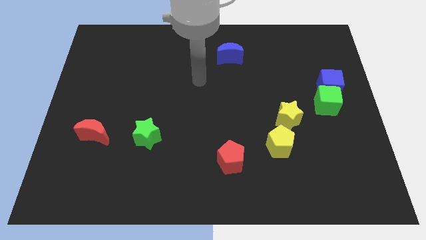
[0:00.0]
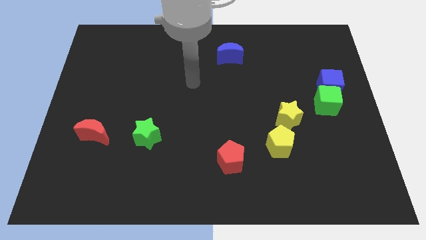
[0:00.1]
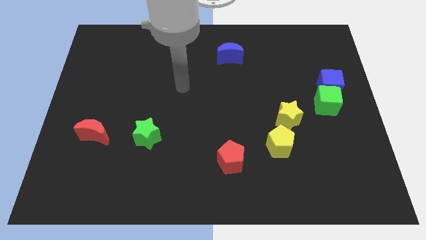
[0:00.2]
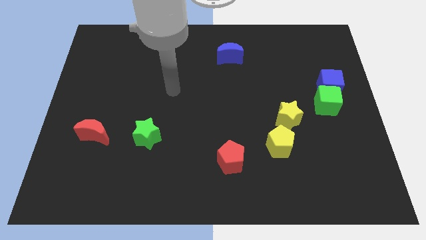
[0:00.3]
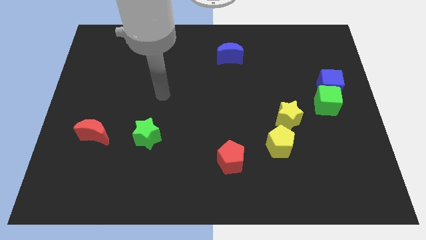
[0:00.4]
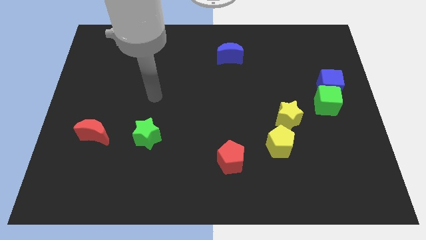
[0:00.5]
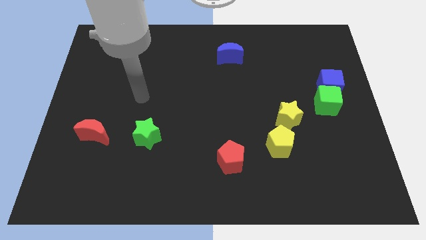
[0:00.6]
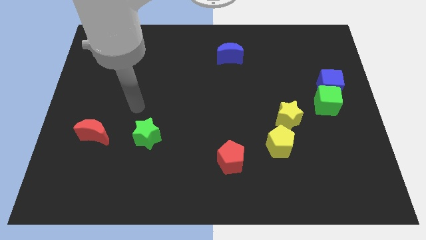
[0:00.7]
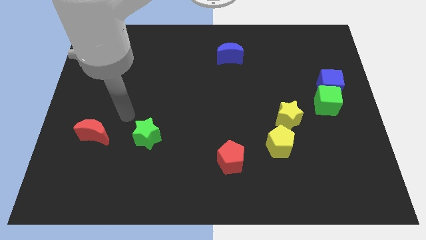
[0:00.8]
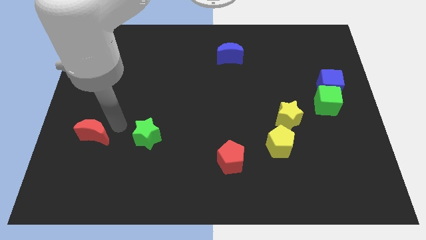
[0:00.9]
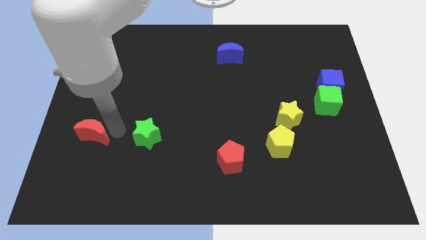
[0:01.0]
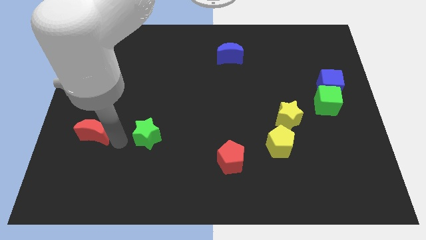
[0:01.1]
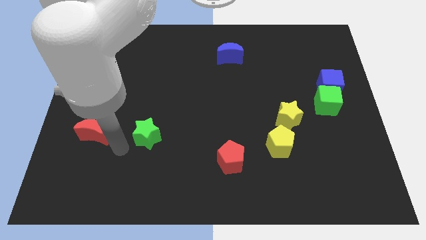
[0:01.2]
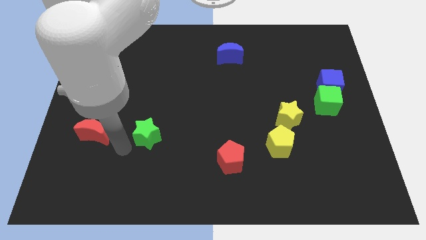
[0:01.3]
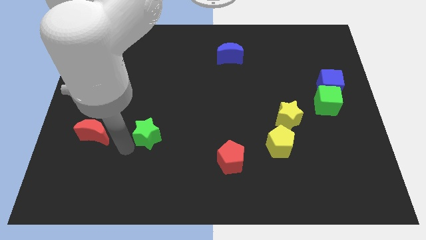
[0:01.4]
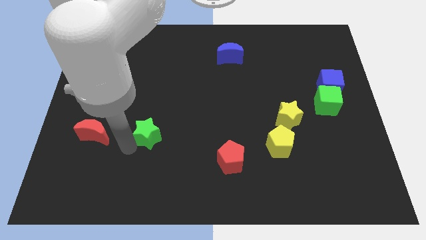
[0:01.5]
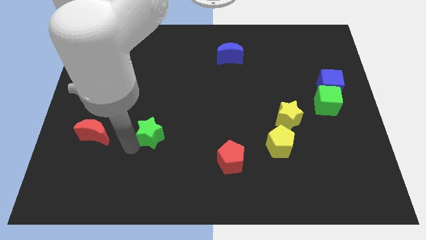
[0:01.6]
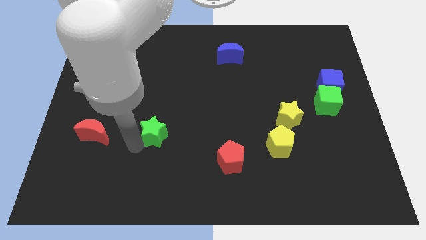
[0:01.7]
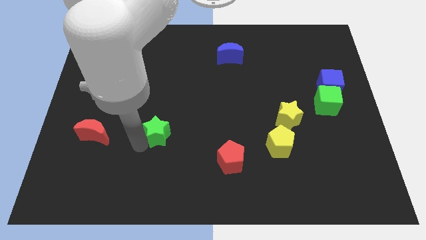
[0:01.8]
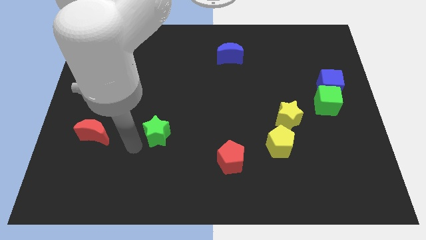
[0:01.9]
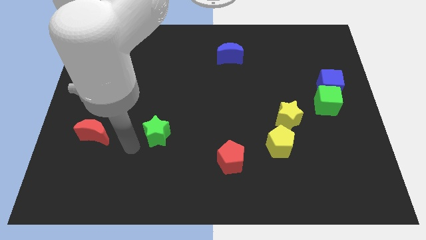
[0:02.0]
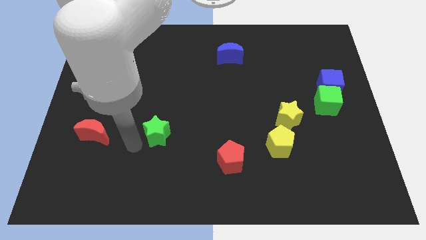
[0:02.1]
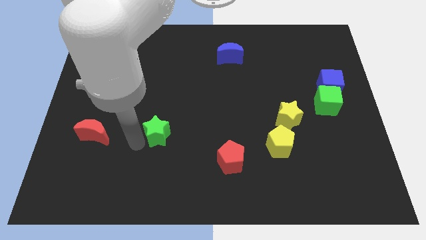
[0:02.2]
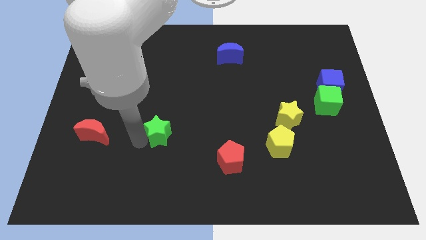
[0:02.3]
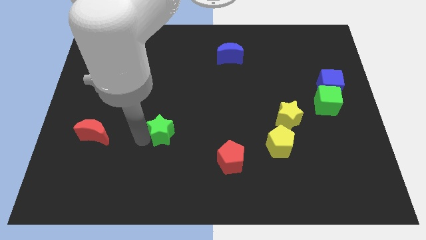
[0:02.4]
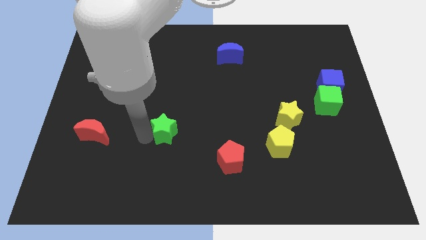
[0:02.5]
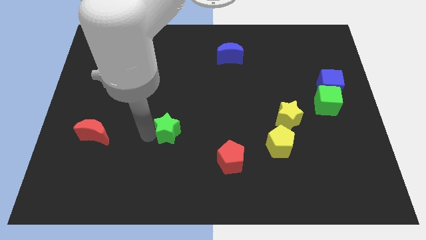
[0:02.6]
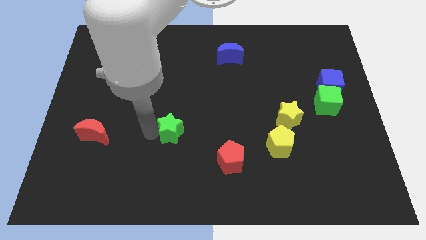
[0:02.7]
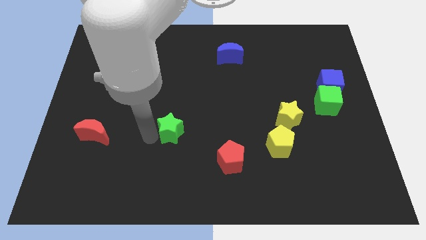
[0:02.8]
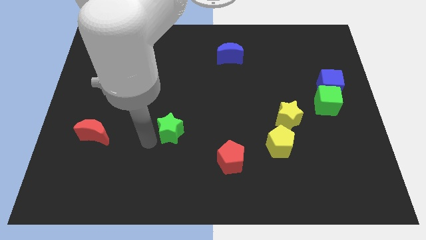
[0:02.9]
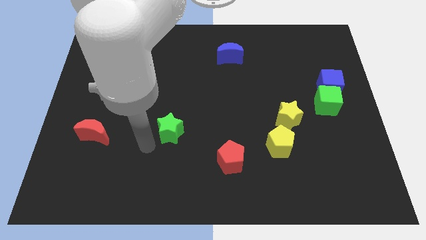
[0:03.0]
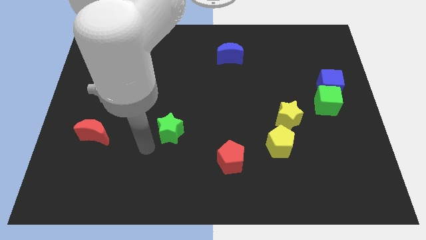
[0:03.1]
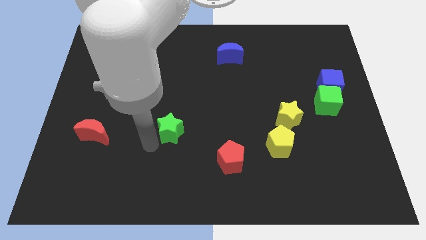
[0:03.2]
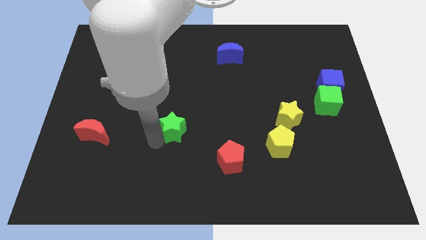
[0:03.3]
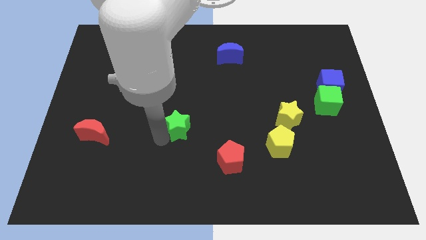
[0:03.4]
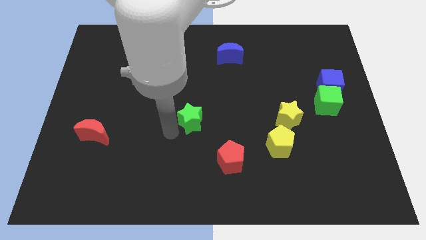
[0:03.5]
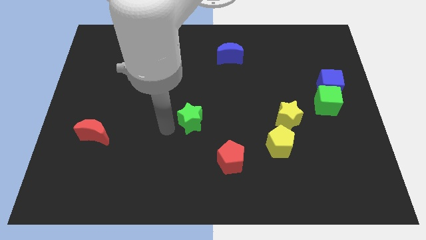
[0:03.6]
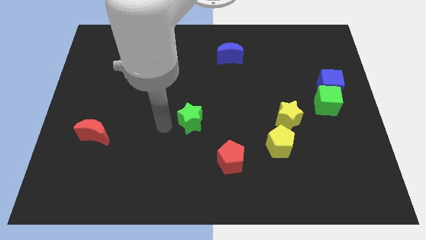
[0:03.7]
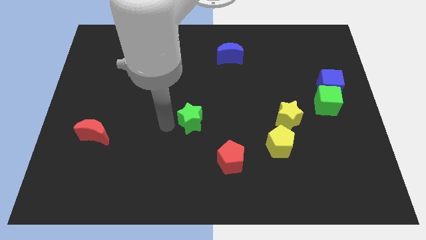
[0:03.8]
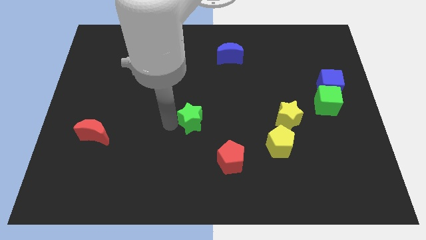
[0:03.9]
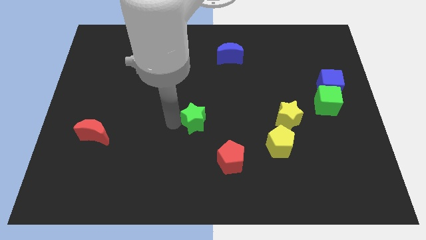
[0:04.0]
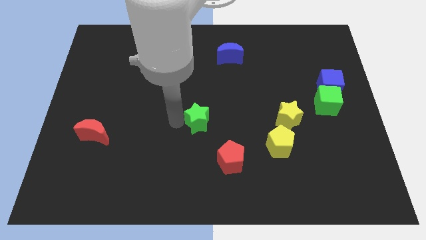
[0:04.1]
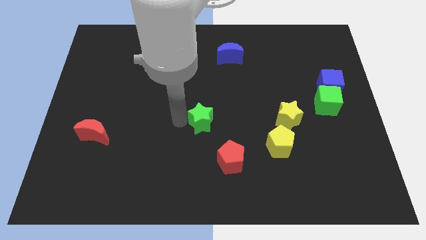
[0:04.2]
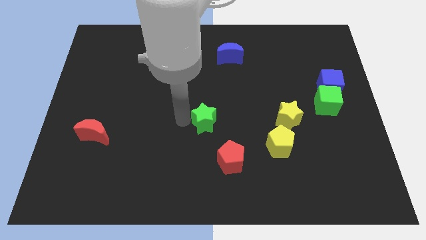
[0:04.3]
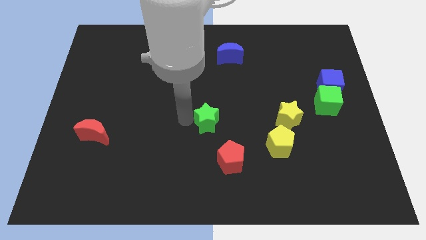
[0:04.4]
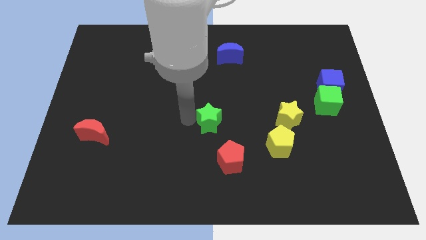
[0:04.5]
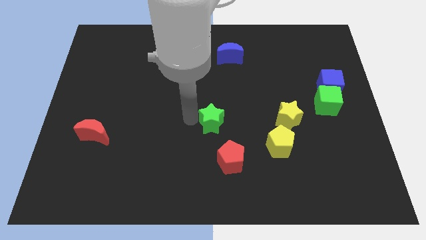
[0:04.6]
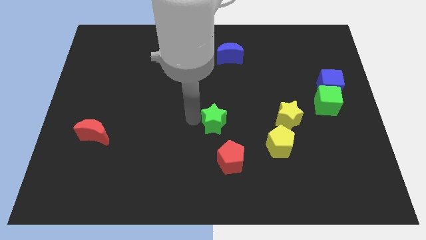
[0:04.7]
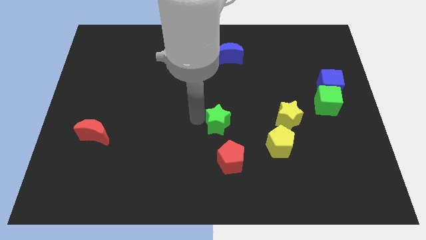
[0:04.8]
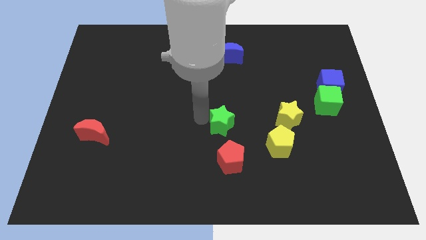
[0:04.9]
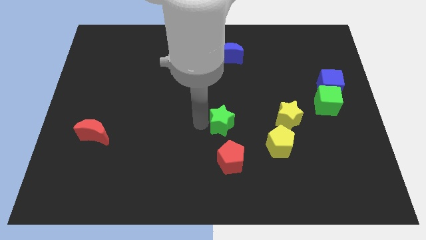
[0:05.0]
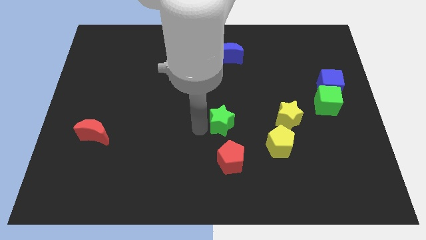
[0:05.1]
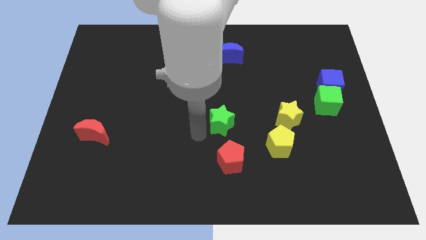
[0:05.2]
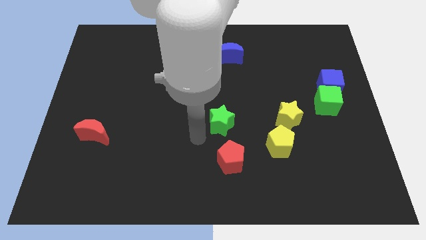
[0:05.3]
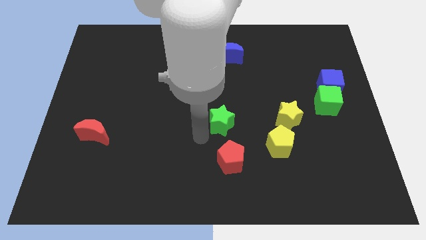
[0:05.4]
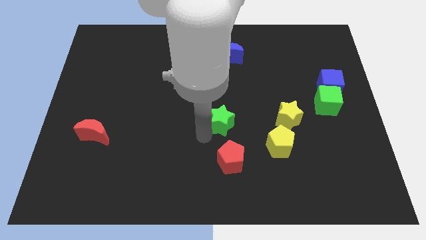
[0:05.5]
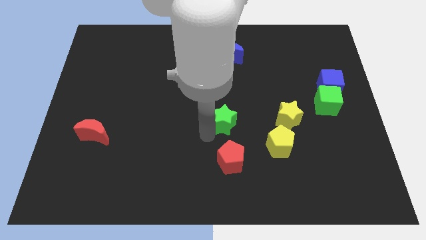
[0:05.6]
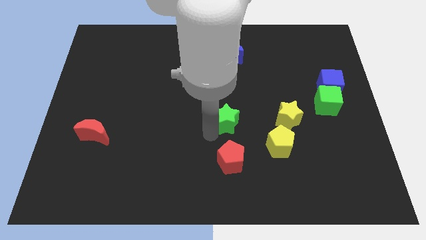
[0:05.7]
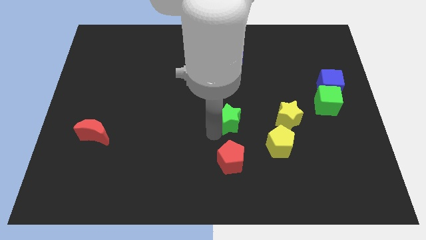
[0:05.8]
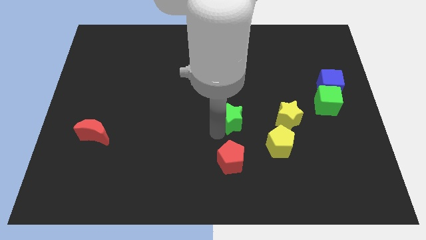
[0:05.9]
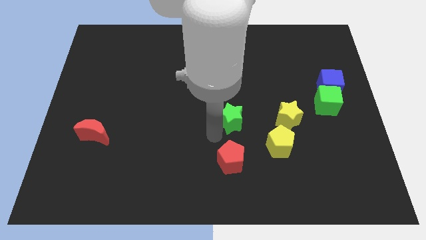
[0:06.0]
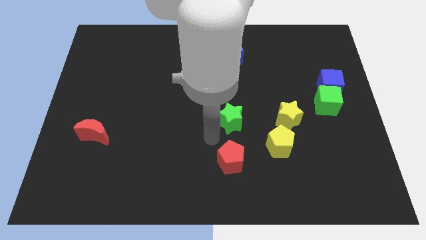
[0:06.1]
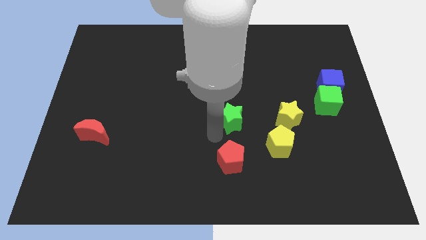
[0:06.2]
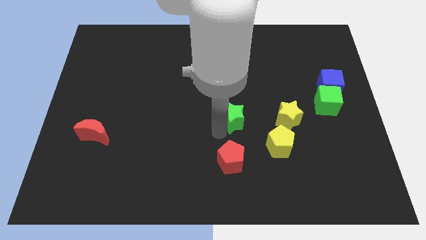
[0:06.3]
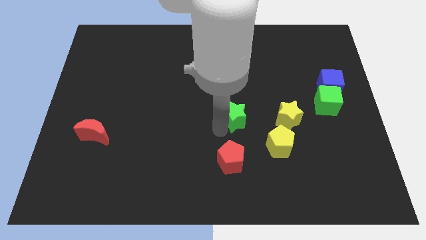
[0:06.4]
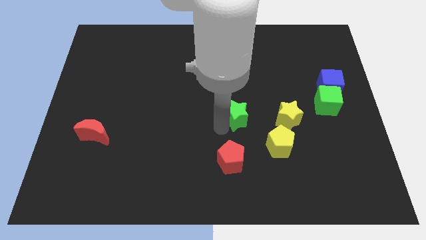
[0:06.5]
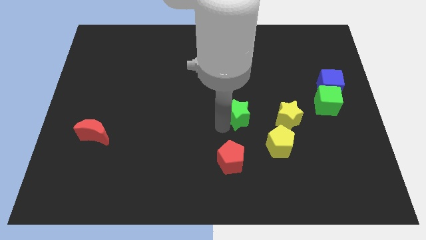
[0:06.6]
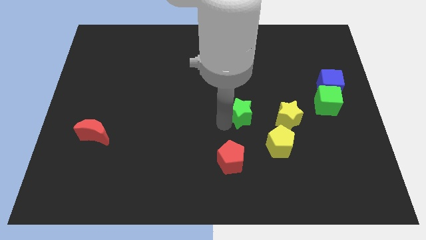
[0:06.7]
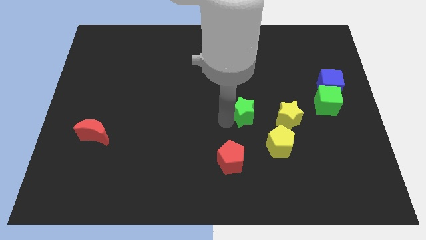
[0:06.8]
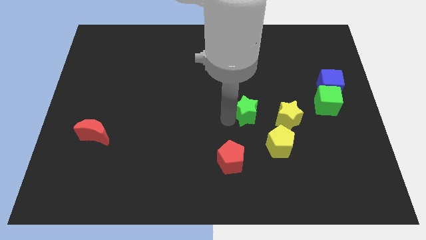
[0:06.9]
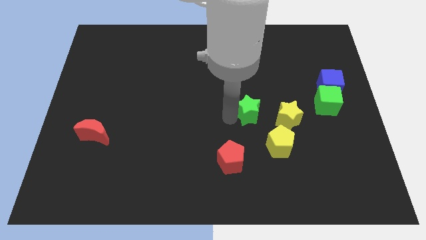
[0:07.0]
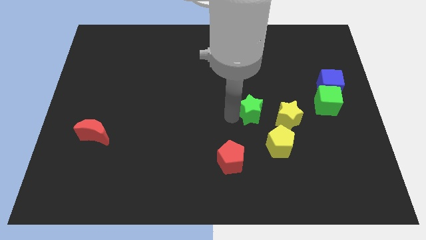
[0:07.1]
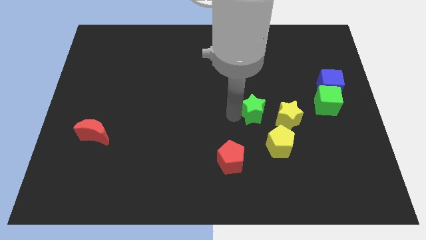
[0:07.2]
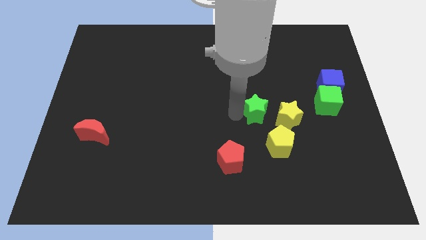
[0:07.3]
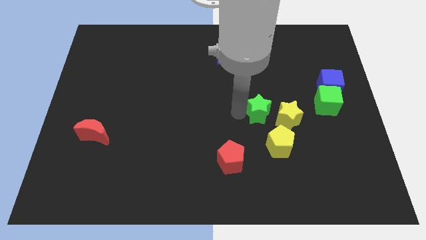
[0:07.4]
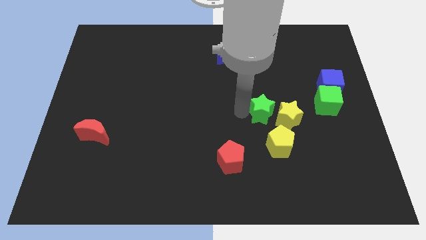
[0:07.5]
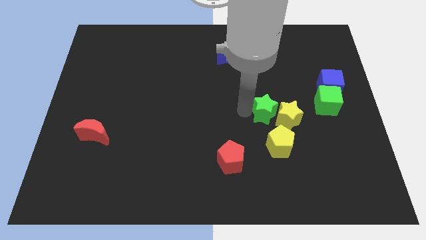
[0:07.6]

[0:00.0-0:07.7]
put the green star to the left side of the green cube
